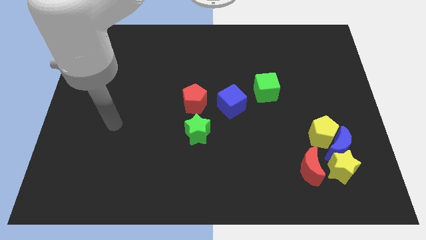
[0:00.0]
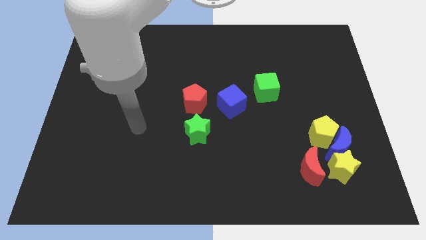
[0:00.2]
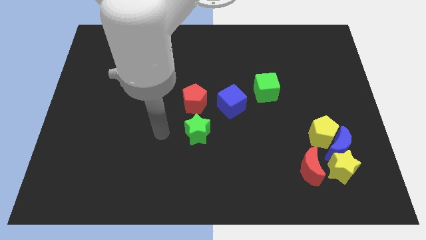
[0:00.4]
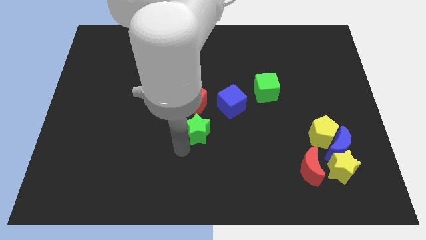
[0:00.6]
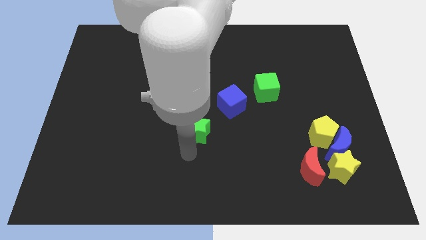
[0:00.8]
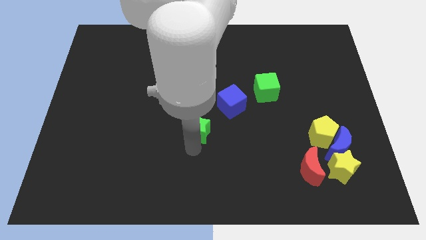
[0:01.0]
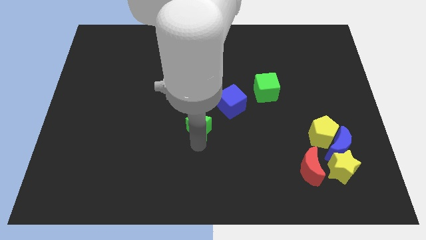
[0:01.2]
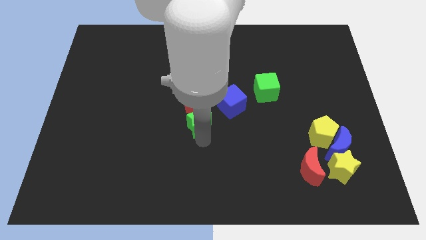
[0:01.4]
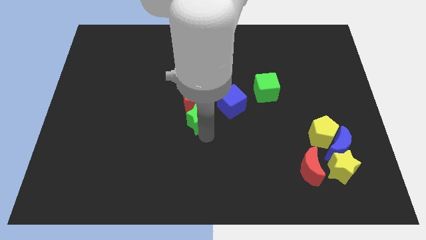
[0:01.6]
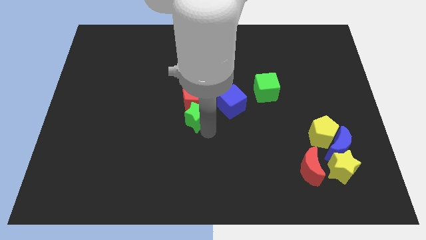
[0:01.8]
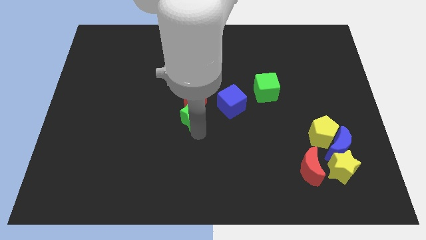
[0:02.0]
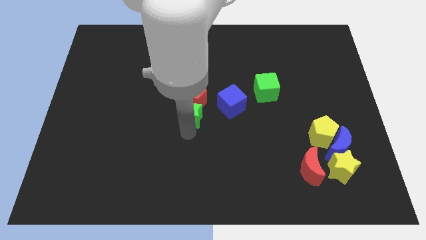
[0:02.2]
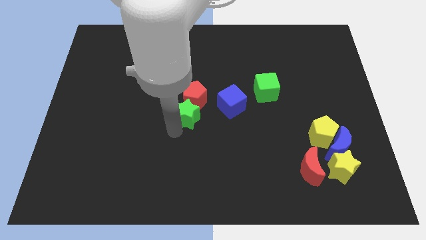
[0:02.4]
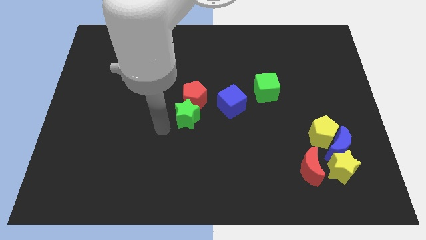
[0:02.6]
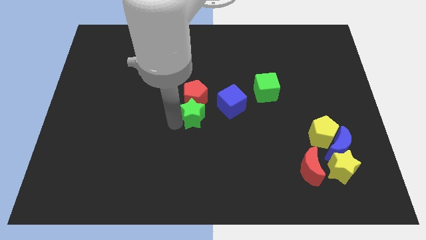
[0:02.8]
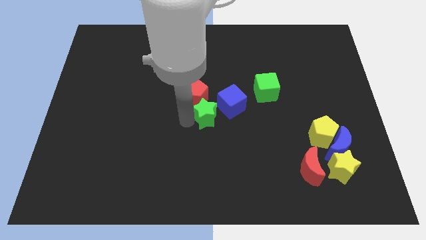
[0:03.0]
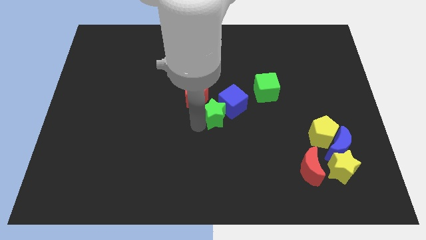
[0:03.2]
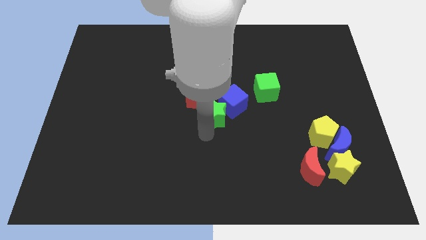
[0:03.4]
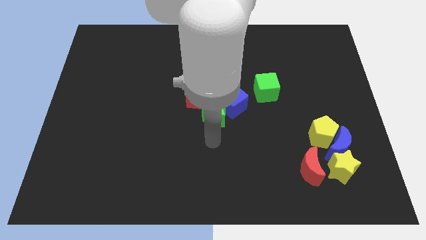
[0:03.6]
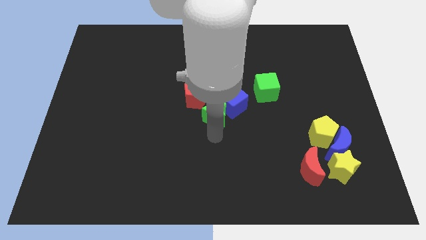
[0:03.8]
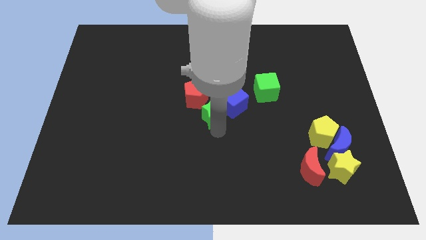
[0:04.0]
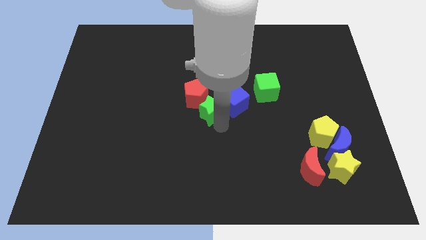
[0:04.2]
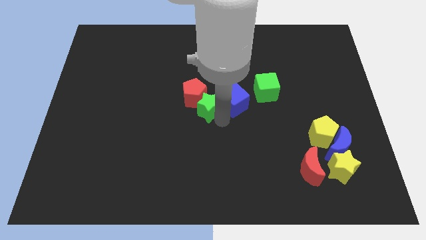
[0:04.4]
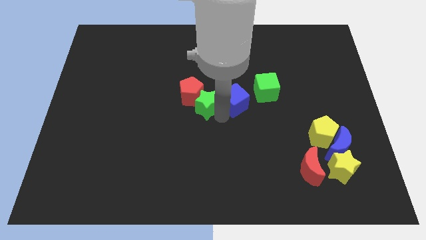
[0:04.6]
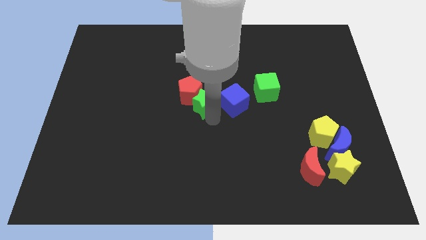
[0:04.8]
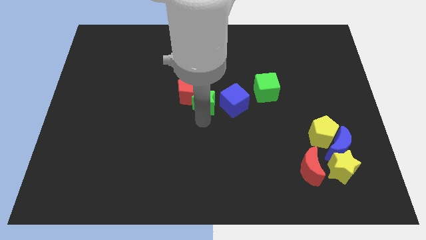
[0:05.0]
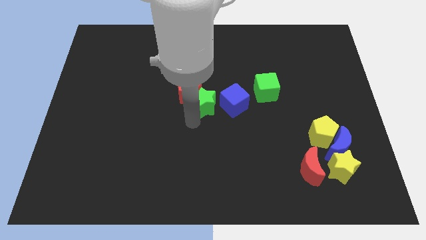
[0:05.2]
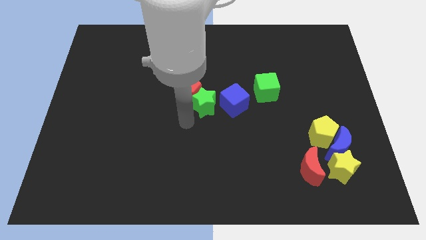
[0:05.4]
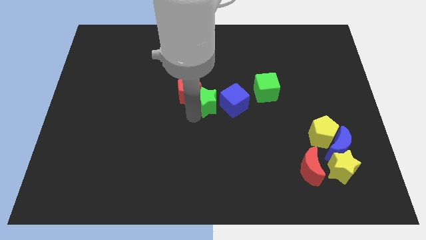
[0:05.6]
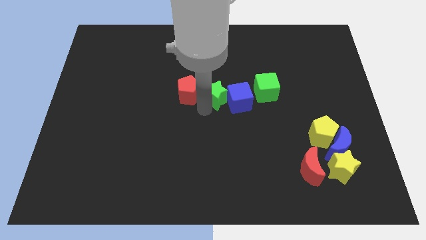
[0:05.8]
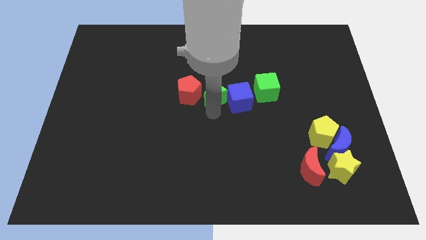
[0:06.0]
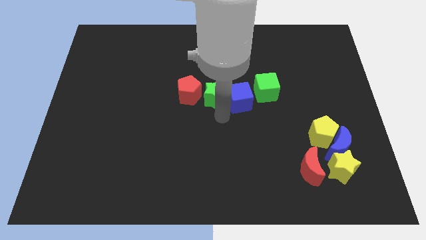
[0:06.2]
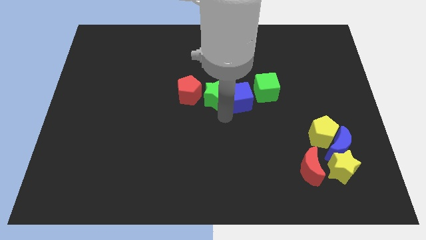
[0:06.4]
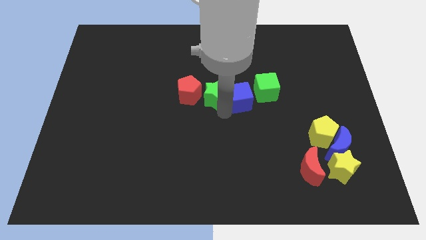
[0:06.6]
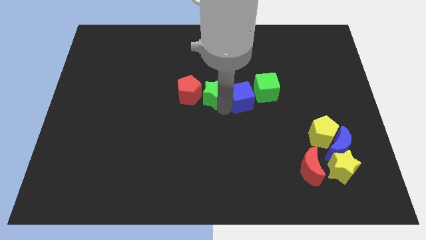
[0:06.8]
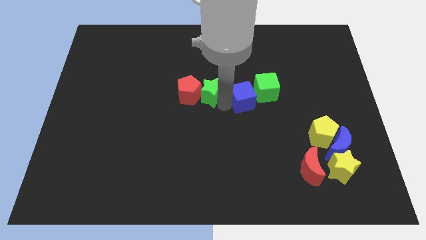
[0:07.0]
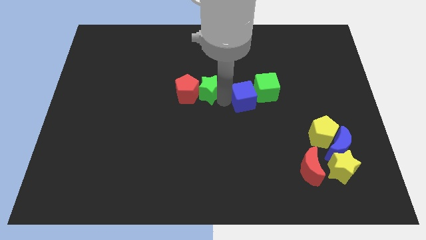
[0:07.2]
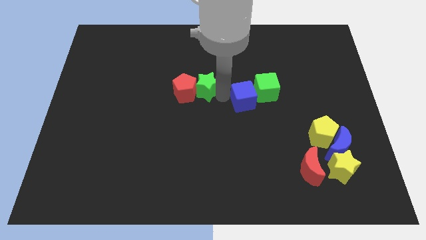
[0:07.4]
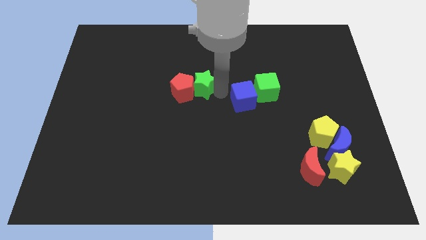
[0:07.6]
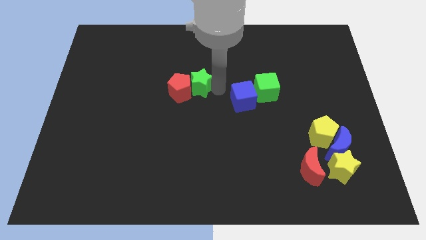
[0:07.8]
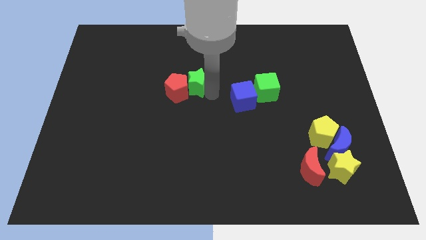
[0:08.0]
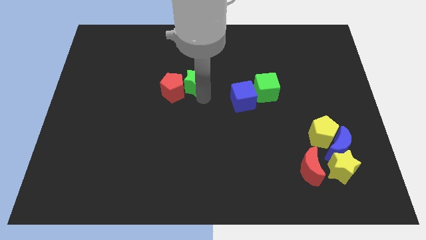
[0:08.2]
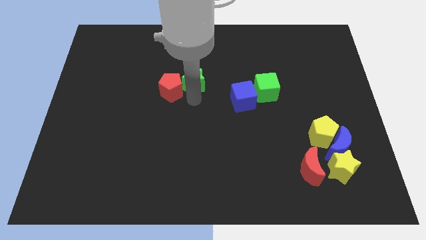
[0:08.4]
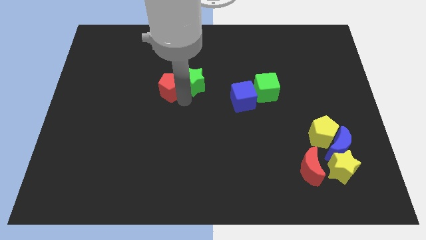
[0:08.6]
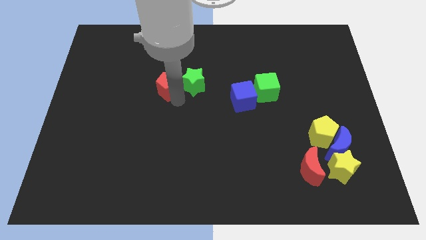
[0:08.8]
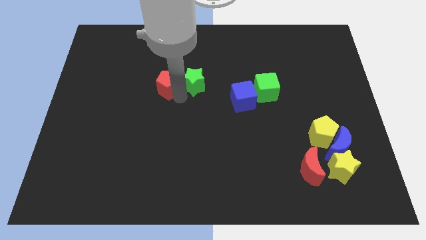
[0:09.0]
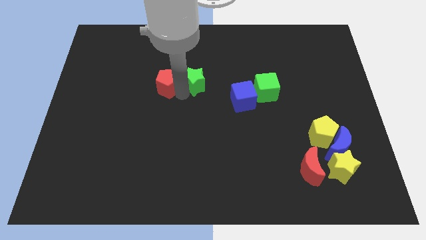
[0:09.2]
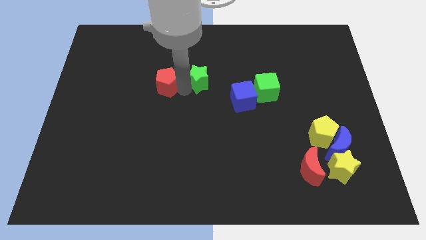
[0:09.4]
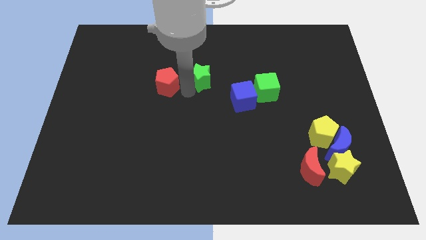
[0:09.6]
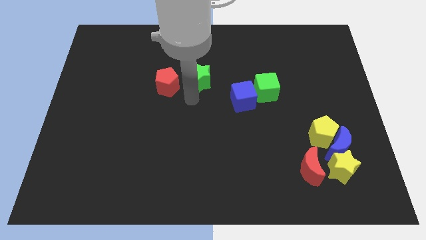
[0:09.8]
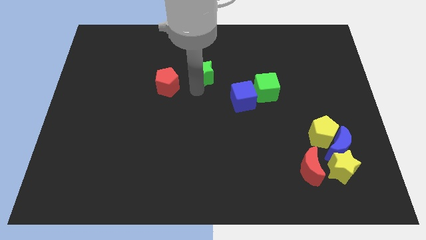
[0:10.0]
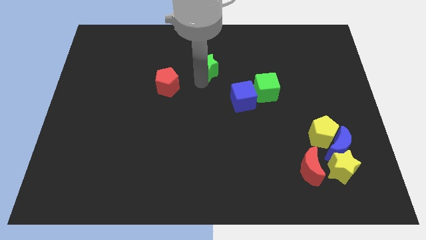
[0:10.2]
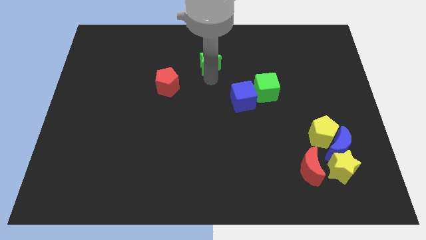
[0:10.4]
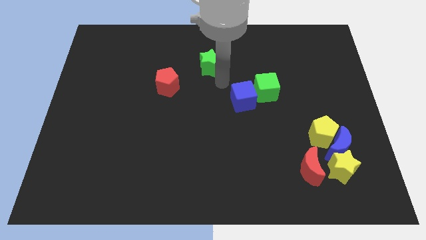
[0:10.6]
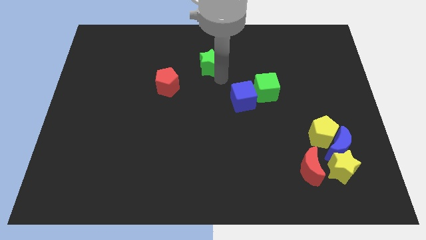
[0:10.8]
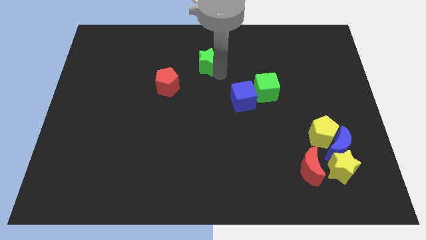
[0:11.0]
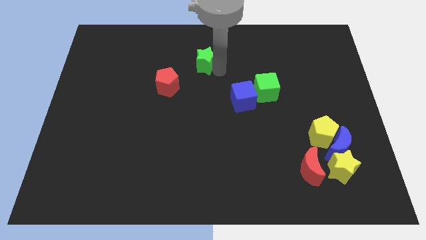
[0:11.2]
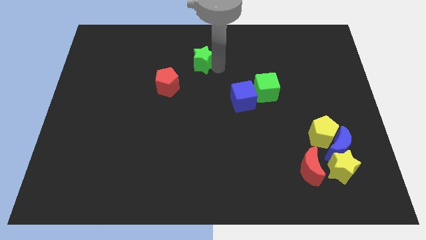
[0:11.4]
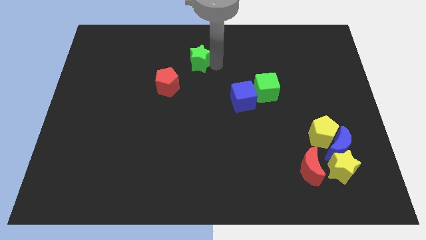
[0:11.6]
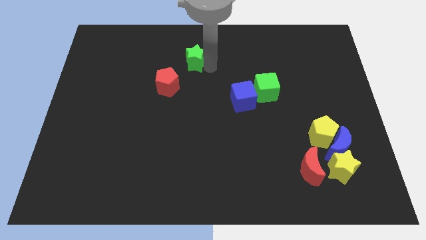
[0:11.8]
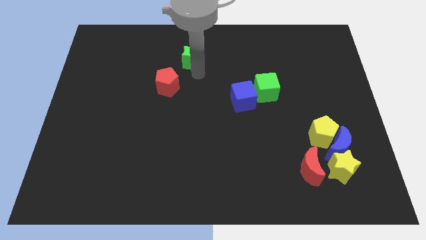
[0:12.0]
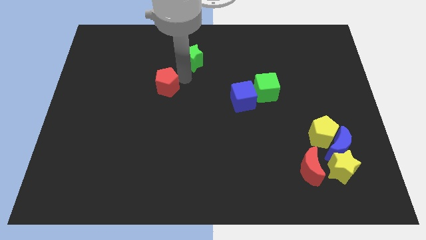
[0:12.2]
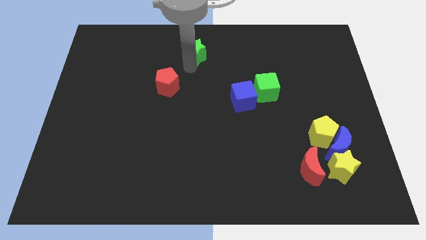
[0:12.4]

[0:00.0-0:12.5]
slide the green star to the top

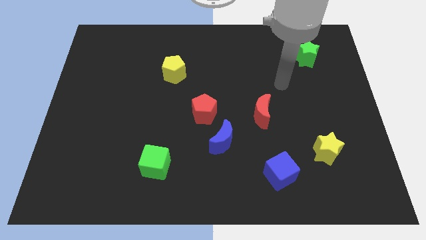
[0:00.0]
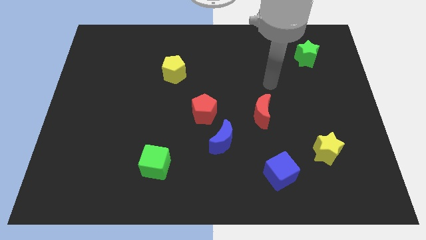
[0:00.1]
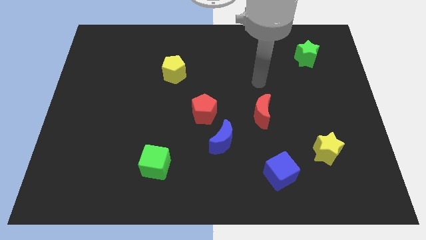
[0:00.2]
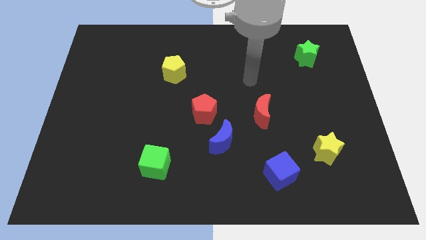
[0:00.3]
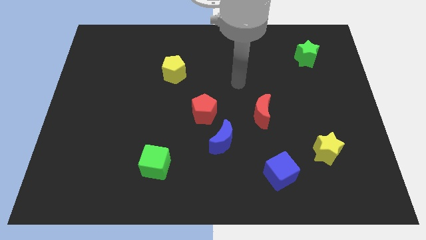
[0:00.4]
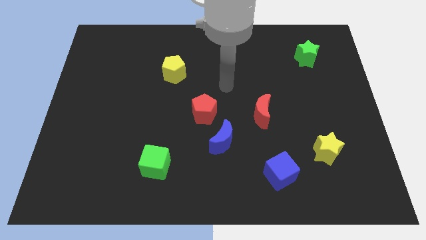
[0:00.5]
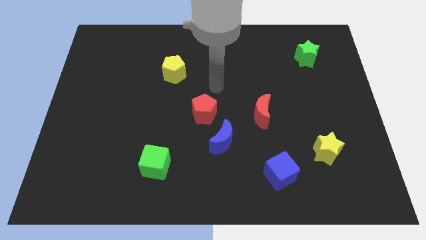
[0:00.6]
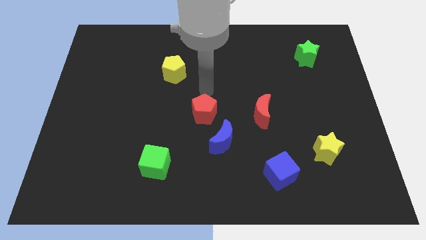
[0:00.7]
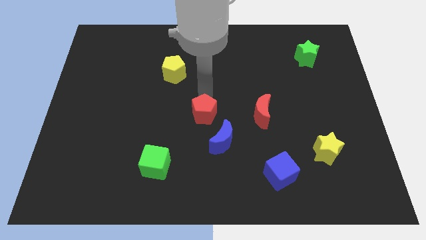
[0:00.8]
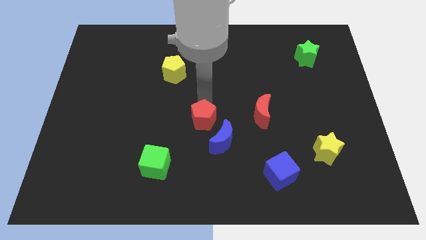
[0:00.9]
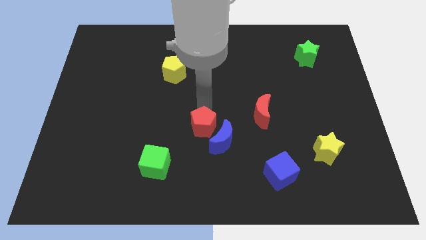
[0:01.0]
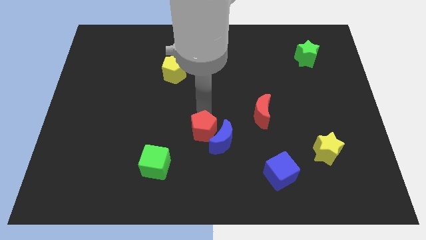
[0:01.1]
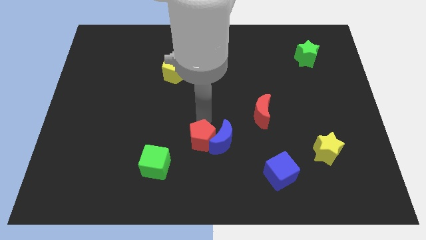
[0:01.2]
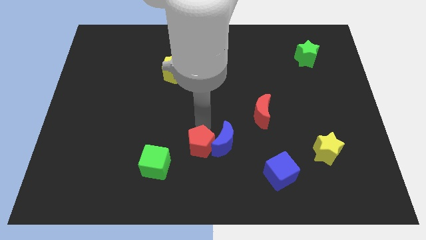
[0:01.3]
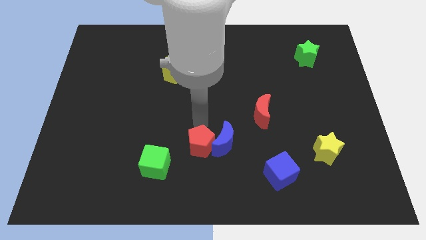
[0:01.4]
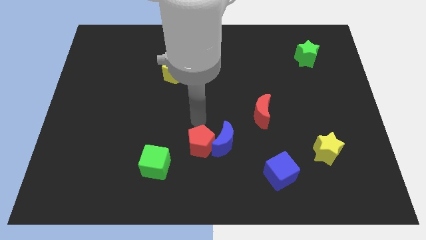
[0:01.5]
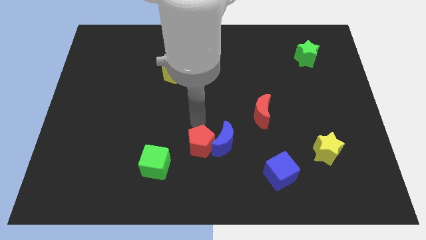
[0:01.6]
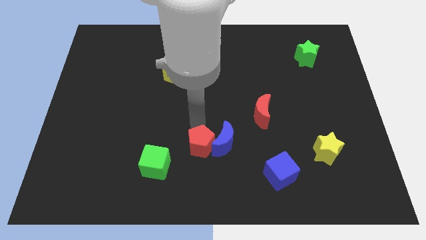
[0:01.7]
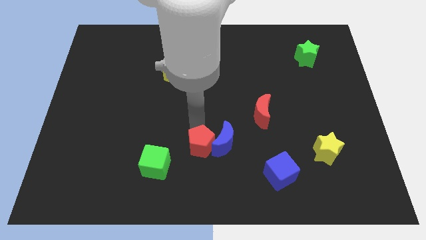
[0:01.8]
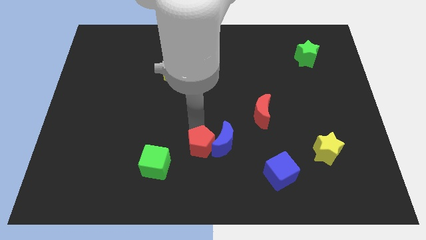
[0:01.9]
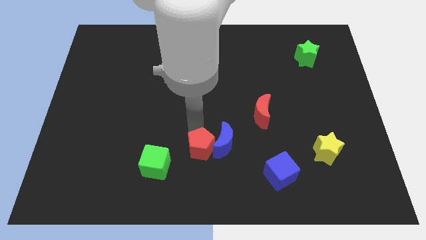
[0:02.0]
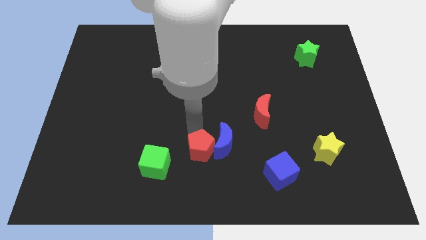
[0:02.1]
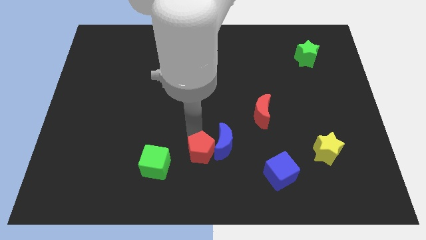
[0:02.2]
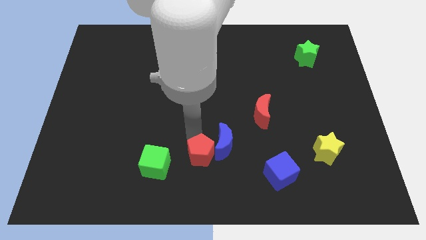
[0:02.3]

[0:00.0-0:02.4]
push the red pentagon to the bottom side
